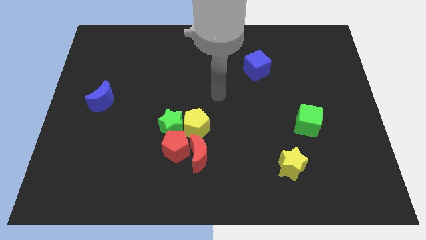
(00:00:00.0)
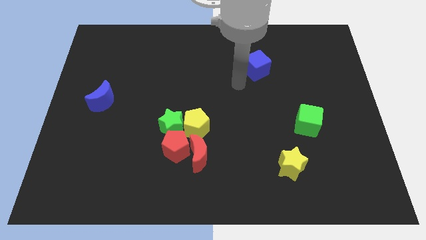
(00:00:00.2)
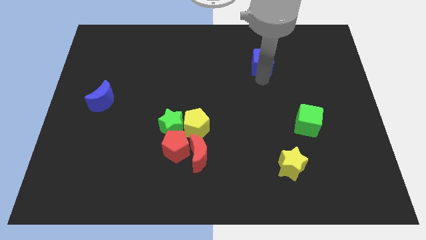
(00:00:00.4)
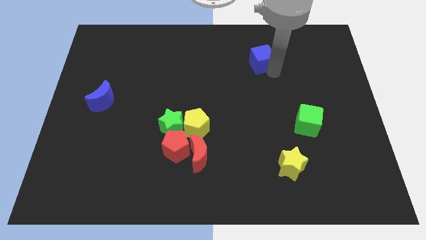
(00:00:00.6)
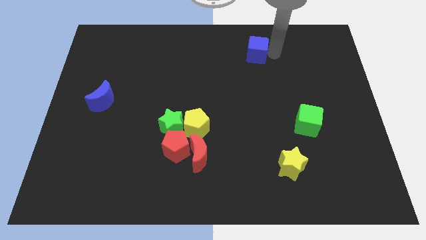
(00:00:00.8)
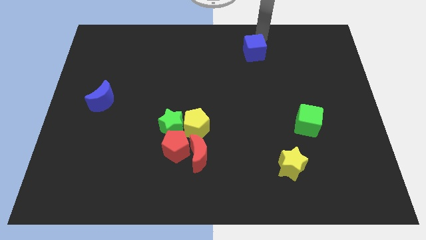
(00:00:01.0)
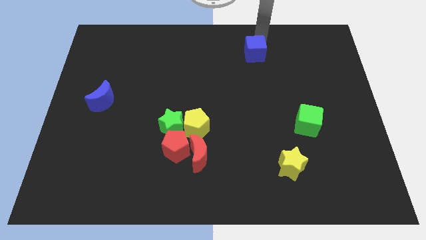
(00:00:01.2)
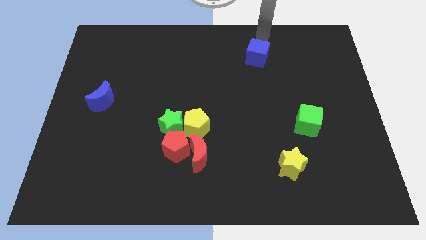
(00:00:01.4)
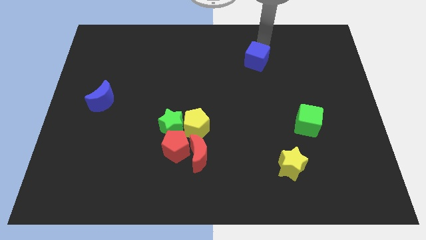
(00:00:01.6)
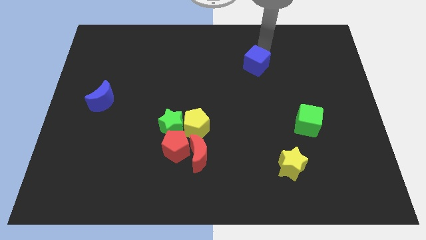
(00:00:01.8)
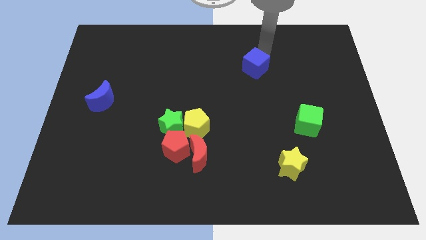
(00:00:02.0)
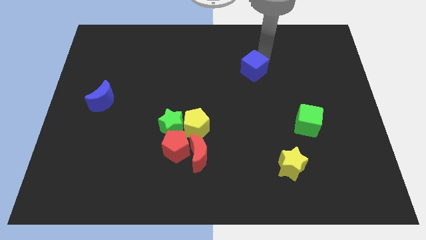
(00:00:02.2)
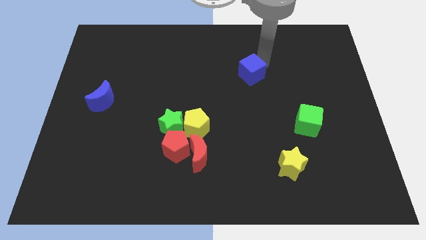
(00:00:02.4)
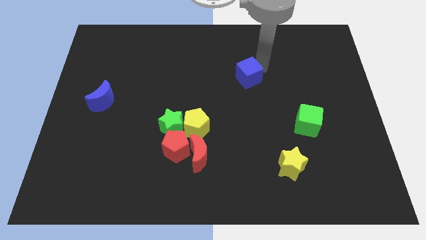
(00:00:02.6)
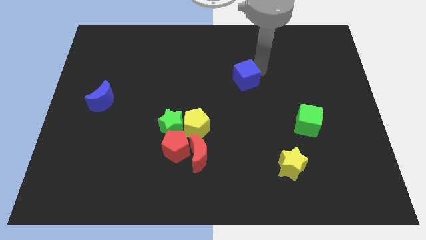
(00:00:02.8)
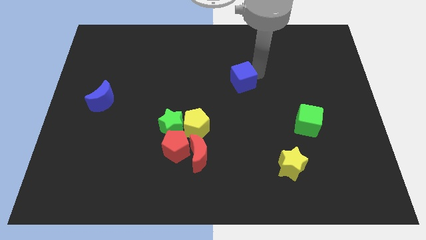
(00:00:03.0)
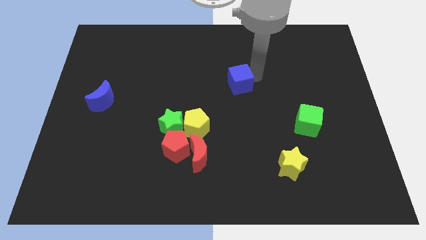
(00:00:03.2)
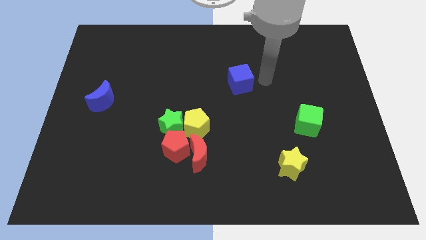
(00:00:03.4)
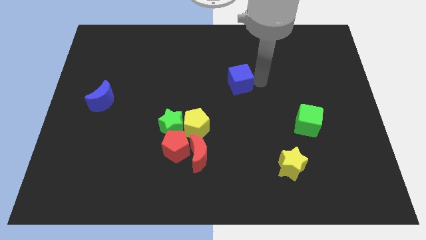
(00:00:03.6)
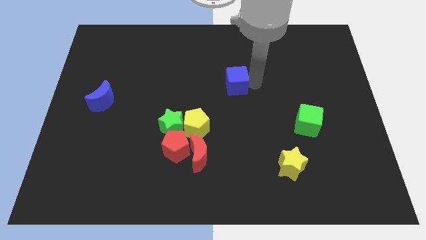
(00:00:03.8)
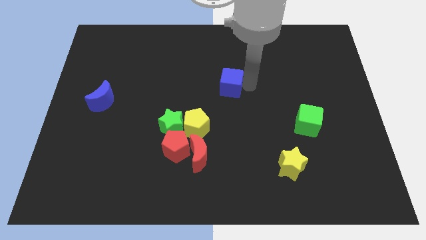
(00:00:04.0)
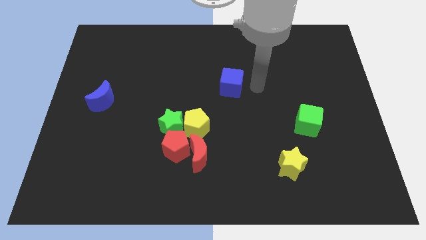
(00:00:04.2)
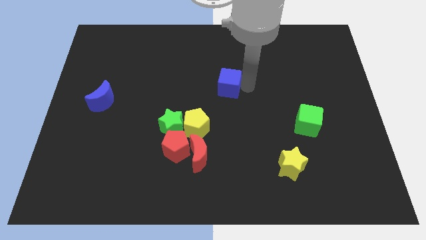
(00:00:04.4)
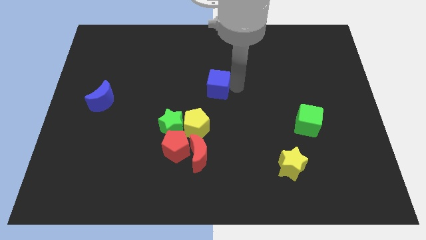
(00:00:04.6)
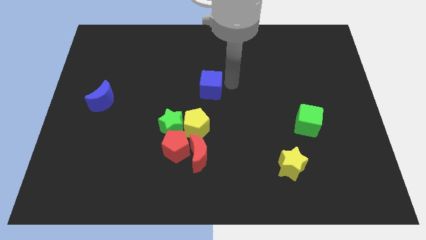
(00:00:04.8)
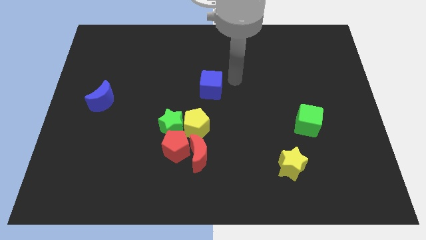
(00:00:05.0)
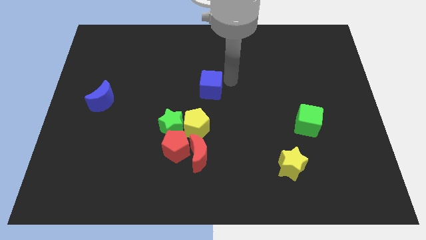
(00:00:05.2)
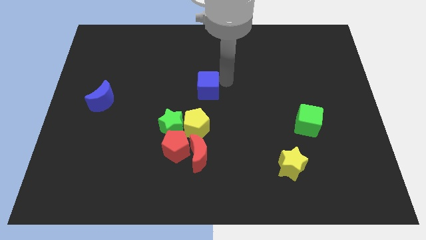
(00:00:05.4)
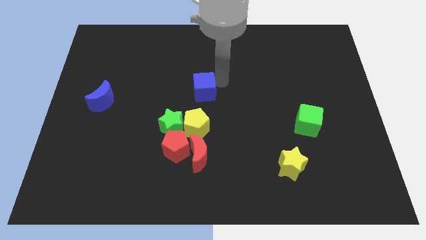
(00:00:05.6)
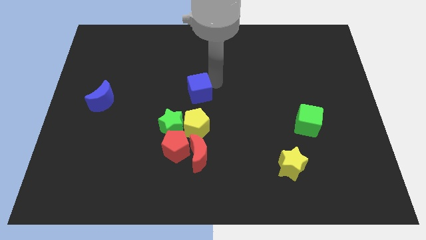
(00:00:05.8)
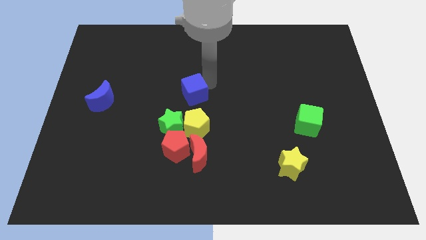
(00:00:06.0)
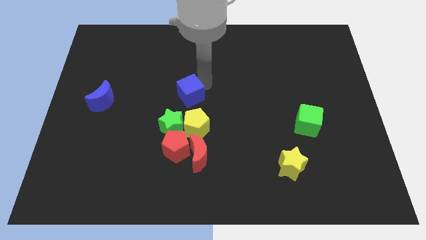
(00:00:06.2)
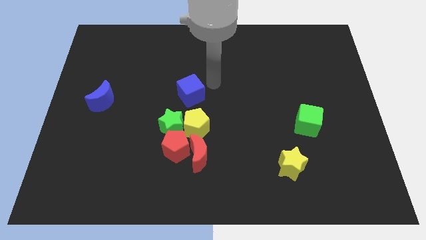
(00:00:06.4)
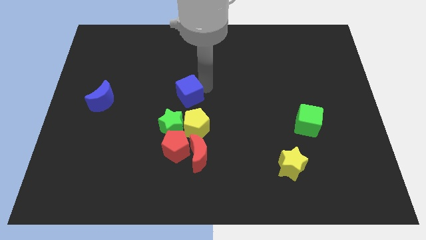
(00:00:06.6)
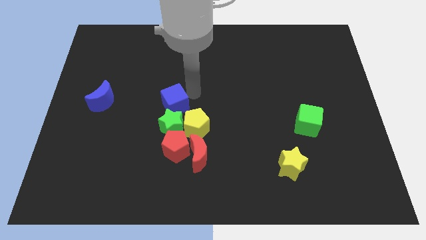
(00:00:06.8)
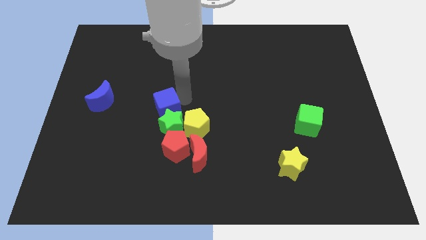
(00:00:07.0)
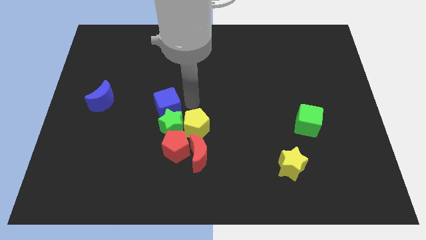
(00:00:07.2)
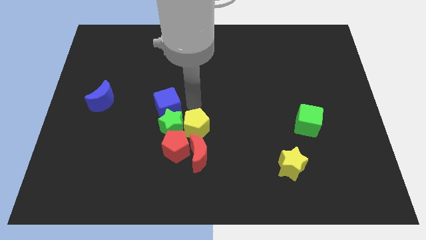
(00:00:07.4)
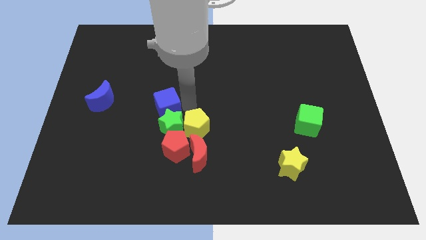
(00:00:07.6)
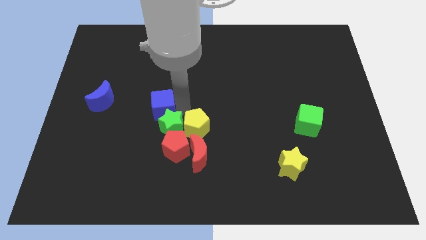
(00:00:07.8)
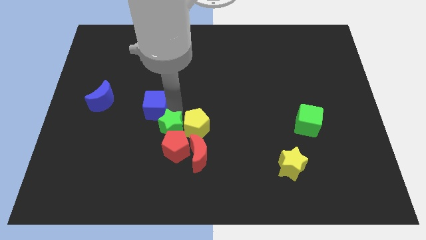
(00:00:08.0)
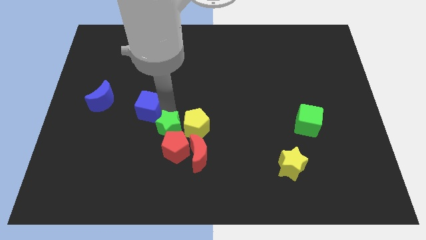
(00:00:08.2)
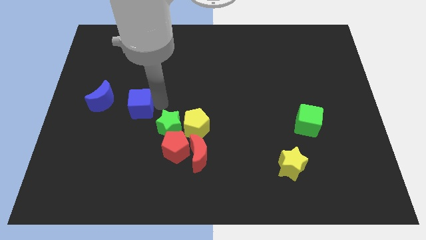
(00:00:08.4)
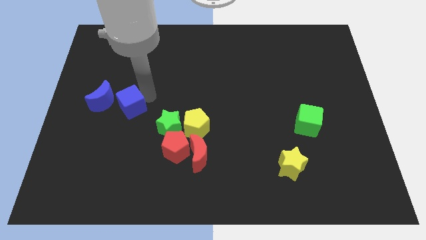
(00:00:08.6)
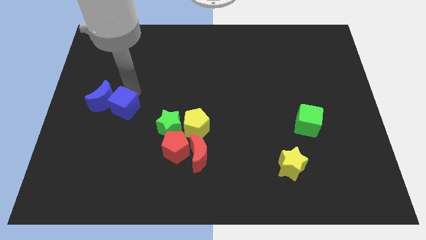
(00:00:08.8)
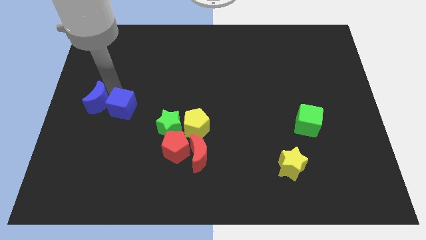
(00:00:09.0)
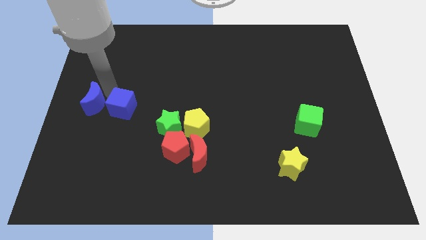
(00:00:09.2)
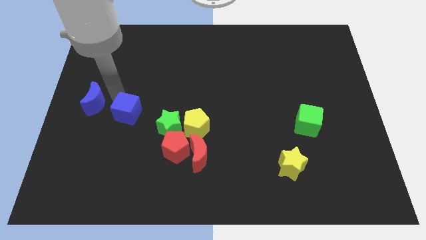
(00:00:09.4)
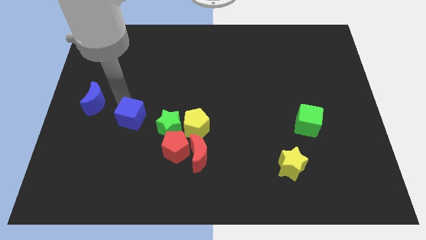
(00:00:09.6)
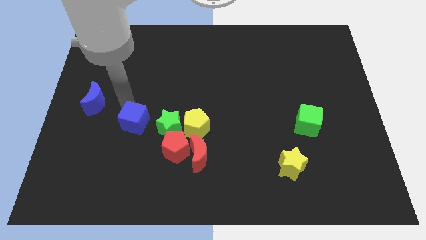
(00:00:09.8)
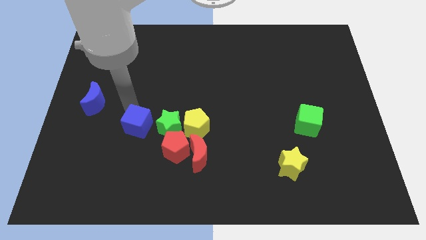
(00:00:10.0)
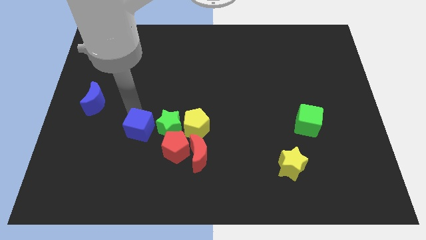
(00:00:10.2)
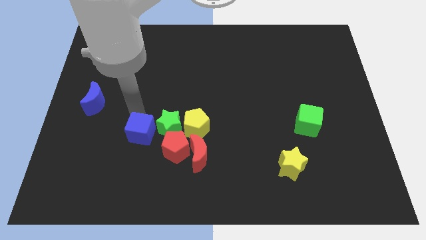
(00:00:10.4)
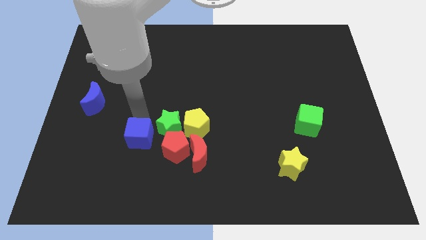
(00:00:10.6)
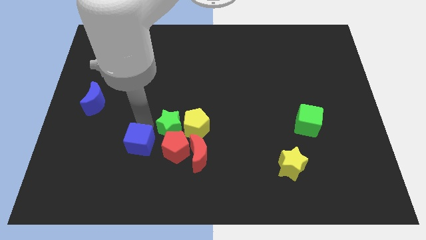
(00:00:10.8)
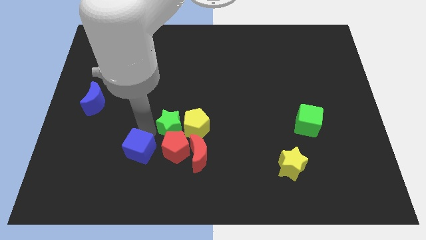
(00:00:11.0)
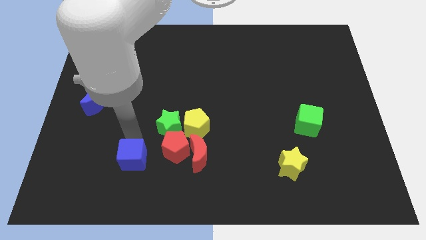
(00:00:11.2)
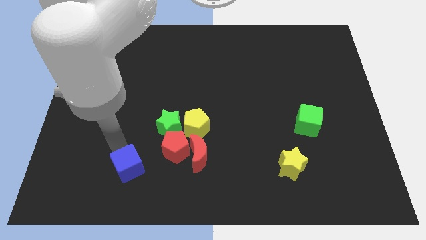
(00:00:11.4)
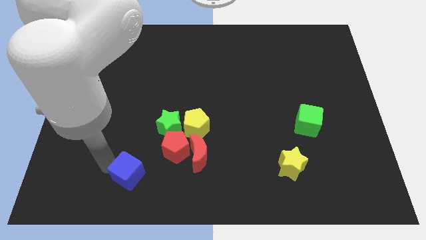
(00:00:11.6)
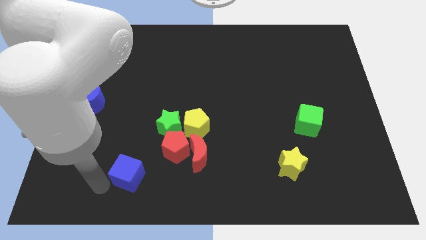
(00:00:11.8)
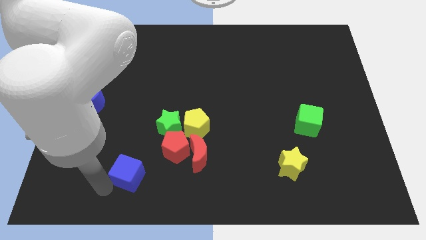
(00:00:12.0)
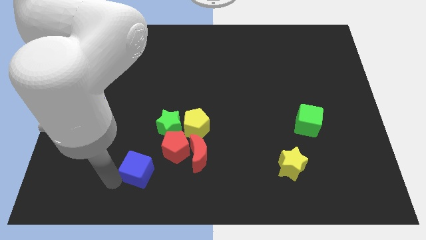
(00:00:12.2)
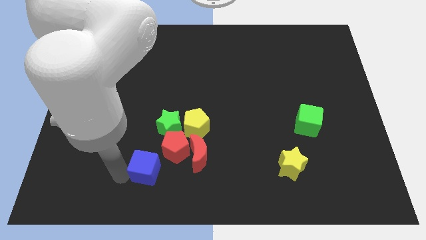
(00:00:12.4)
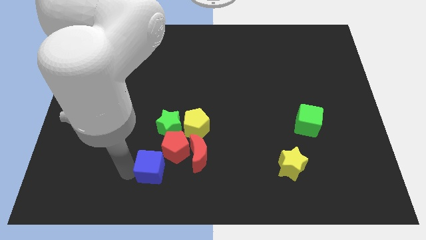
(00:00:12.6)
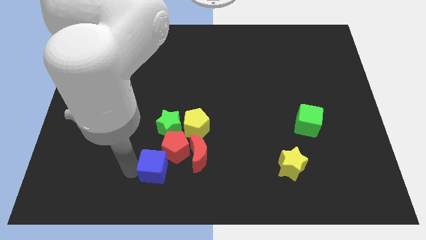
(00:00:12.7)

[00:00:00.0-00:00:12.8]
move the blue cube next to the red pentagon
